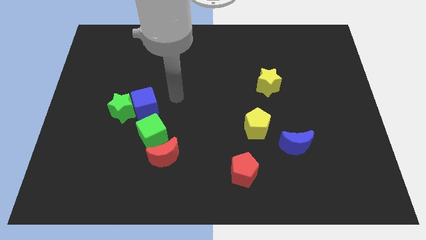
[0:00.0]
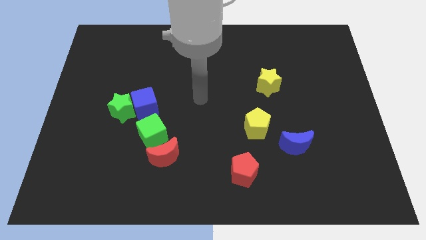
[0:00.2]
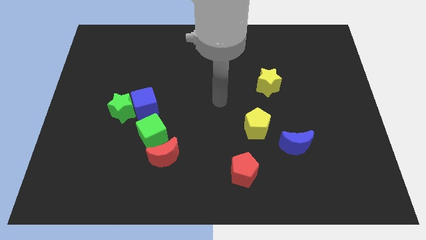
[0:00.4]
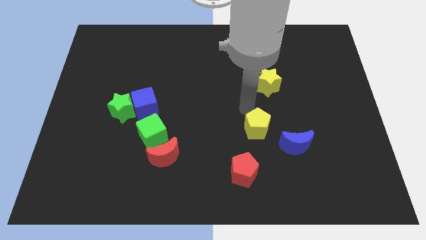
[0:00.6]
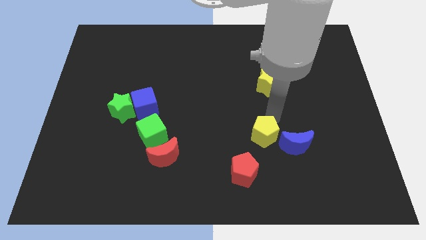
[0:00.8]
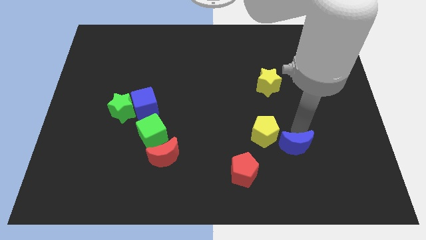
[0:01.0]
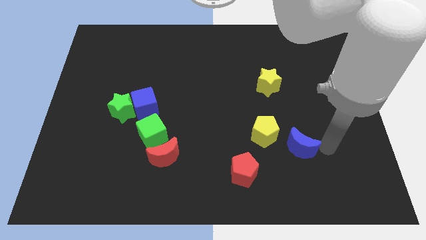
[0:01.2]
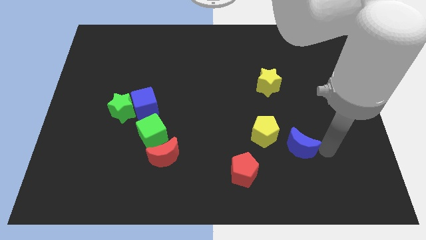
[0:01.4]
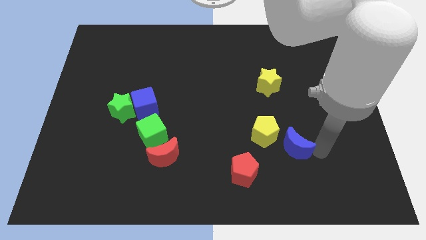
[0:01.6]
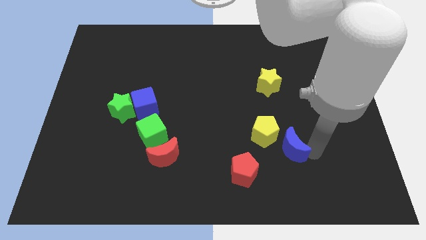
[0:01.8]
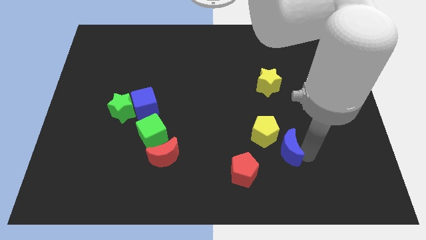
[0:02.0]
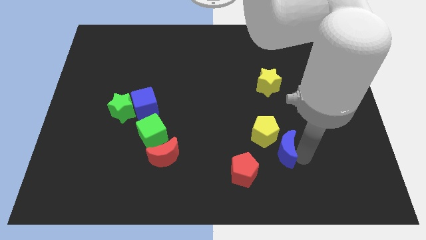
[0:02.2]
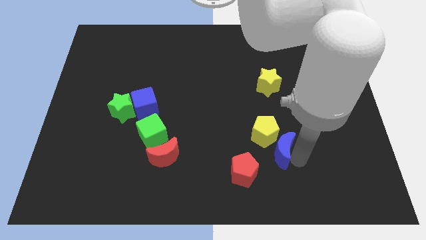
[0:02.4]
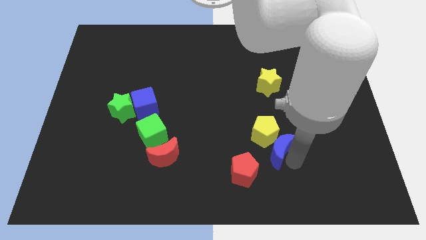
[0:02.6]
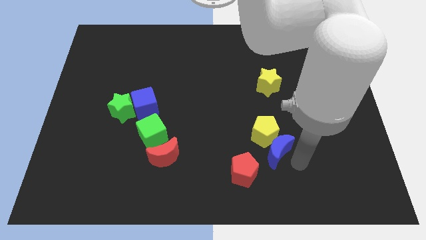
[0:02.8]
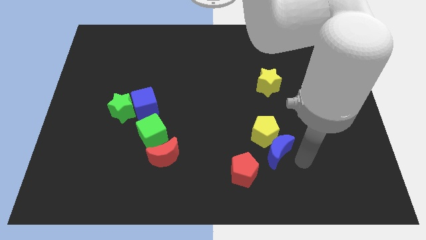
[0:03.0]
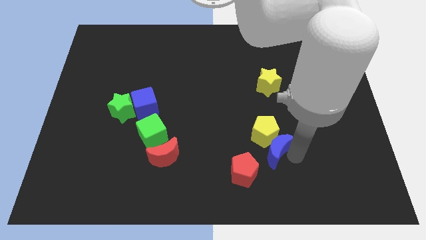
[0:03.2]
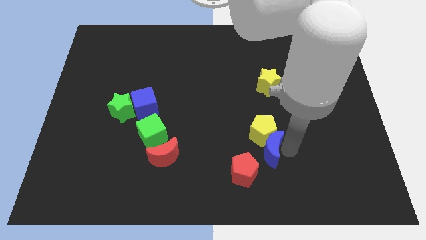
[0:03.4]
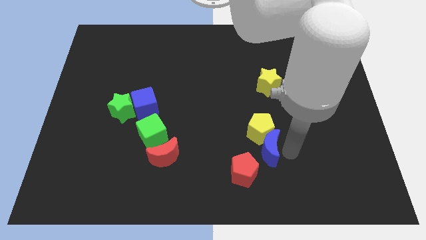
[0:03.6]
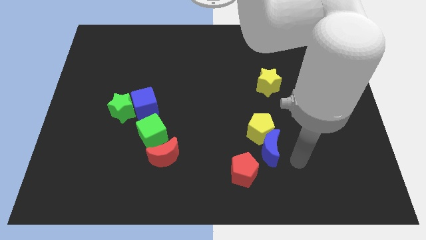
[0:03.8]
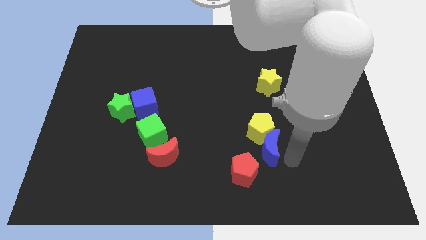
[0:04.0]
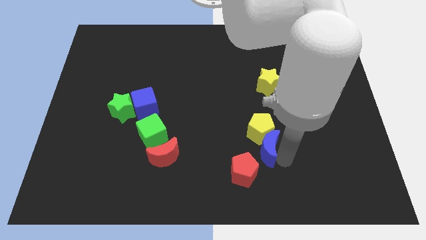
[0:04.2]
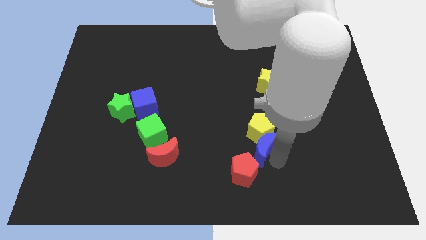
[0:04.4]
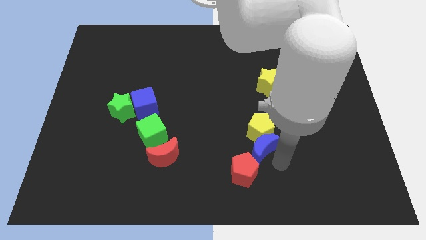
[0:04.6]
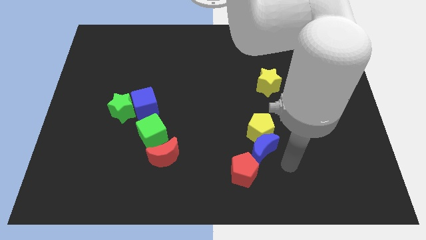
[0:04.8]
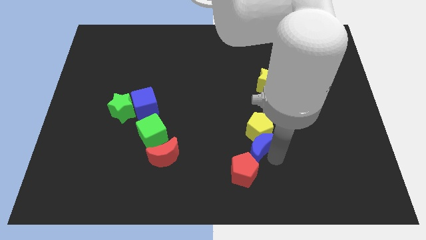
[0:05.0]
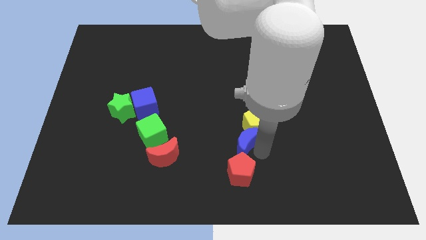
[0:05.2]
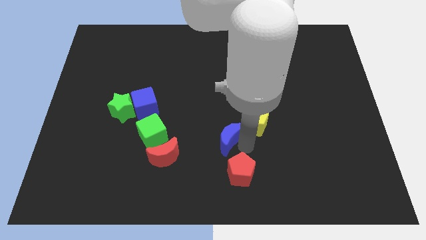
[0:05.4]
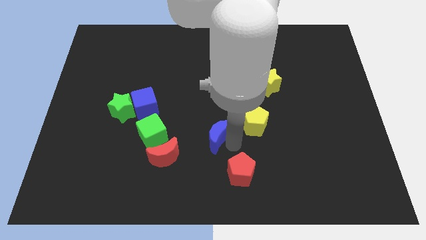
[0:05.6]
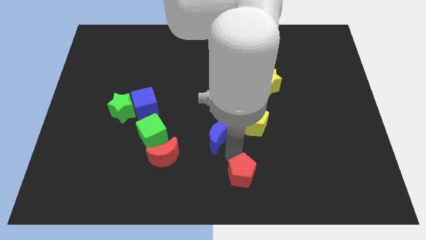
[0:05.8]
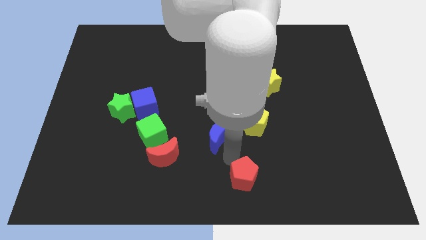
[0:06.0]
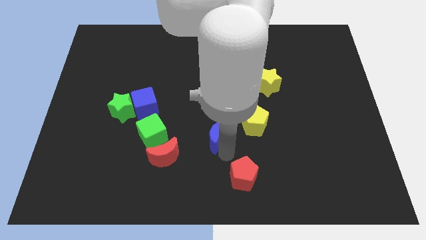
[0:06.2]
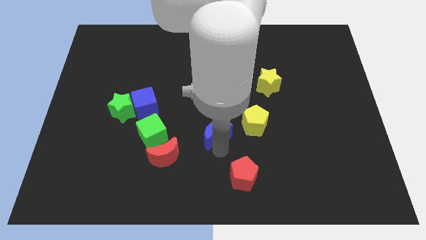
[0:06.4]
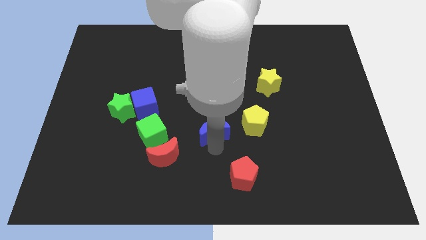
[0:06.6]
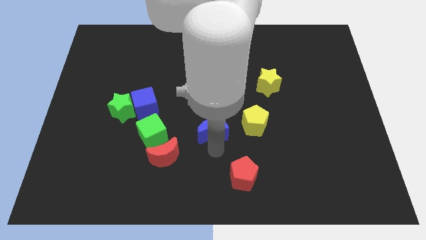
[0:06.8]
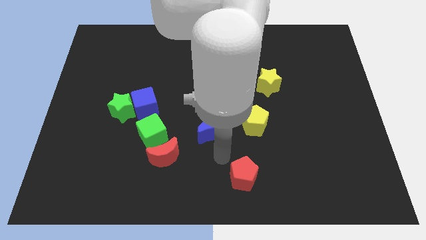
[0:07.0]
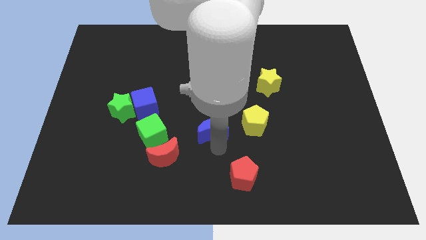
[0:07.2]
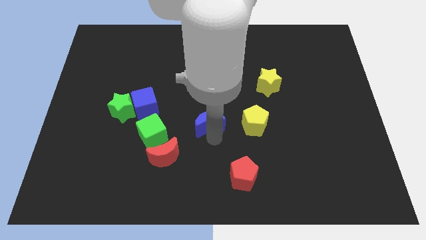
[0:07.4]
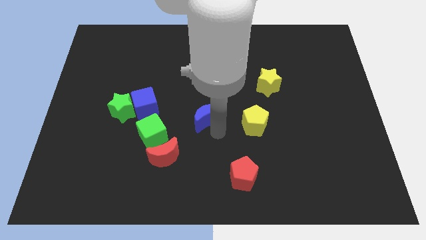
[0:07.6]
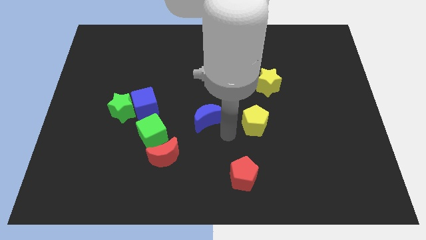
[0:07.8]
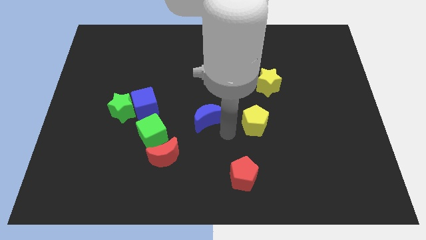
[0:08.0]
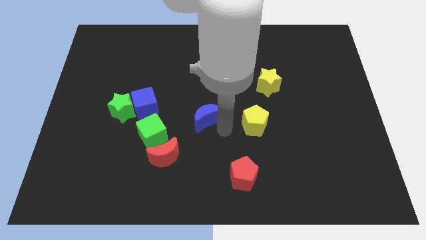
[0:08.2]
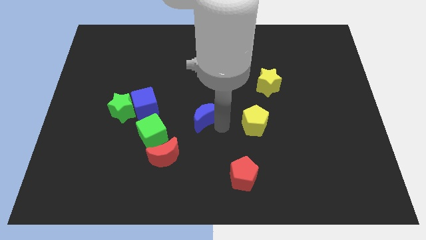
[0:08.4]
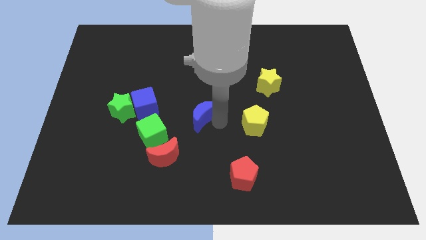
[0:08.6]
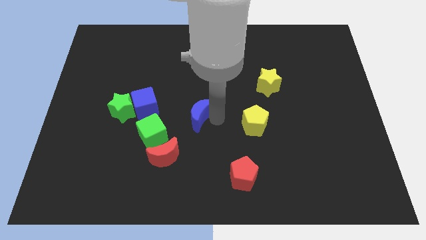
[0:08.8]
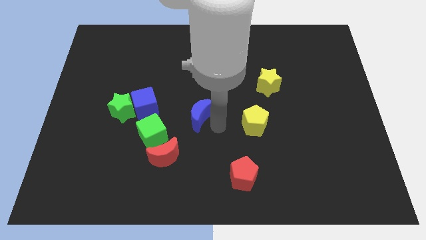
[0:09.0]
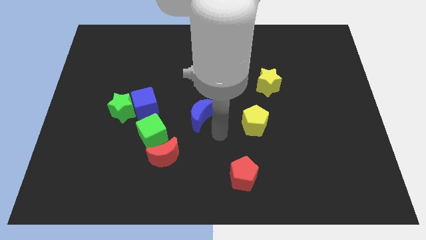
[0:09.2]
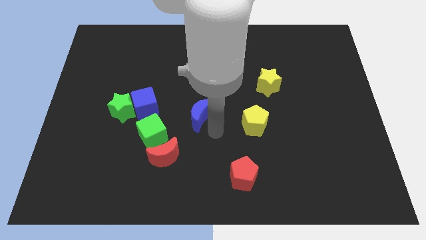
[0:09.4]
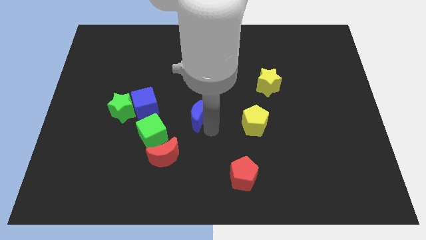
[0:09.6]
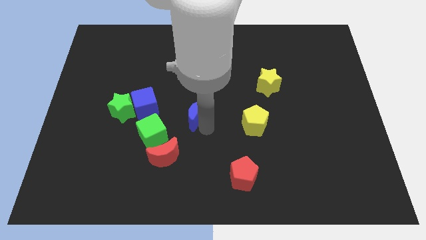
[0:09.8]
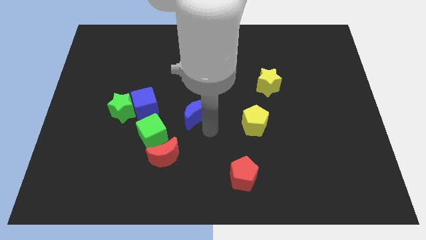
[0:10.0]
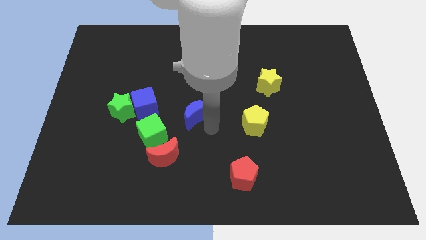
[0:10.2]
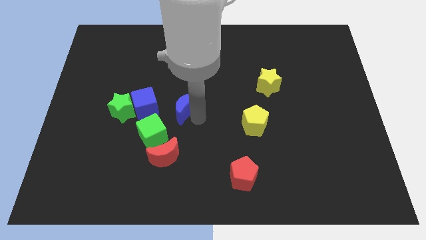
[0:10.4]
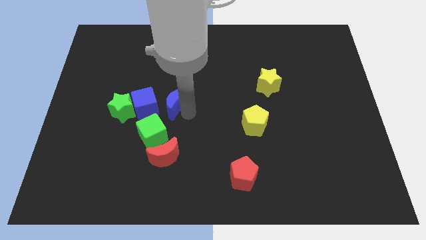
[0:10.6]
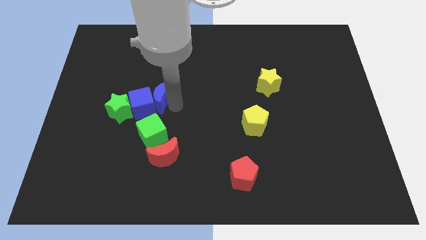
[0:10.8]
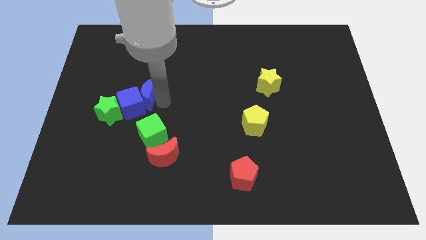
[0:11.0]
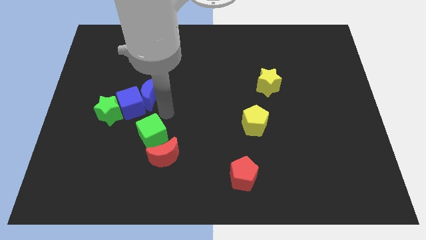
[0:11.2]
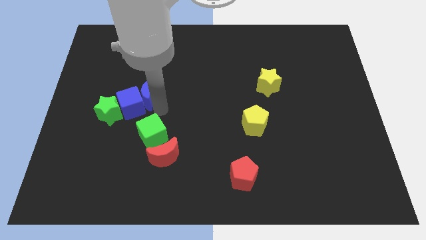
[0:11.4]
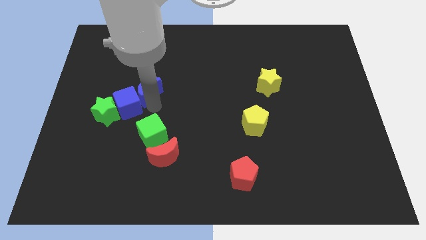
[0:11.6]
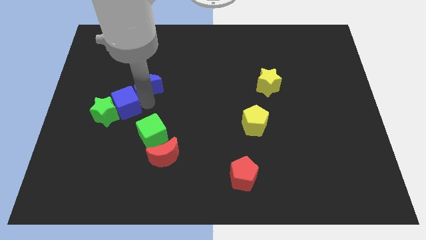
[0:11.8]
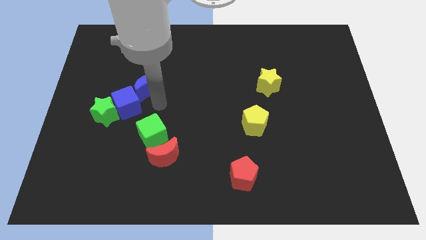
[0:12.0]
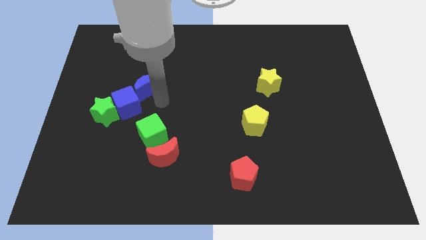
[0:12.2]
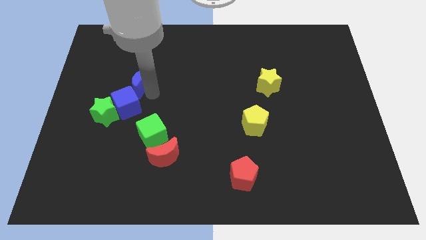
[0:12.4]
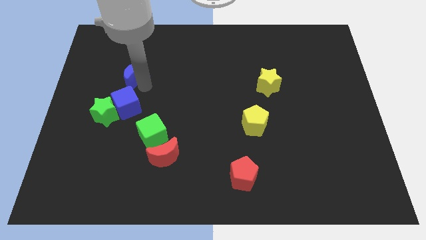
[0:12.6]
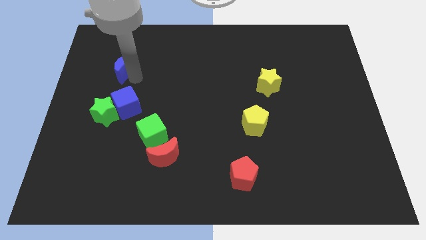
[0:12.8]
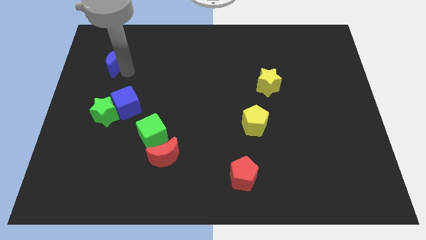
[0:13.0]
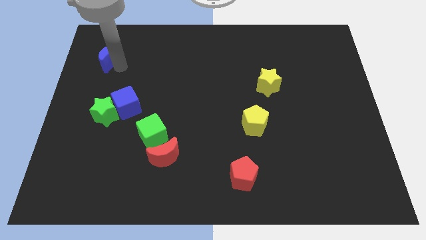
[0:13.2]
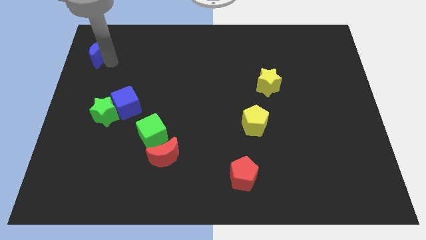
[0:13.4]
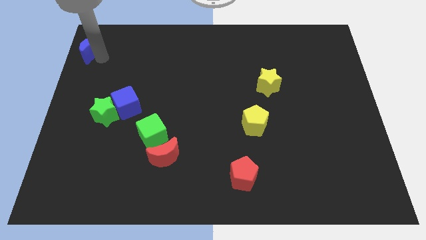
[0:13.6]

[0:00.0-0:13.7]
push the blue moon to the top left
